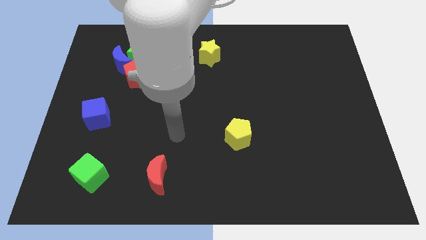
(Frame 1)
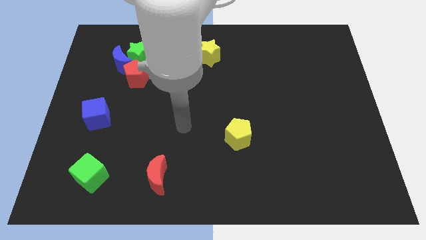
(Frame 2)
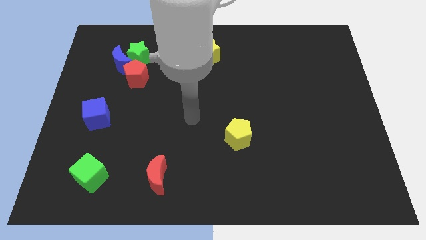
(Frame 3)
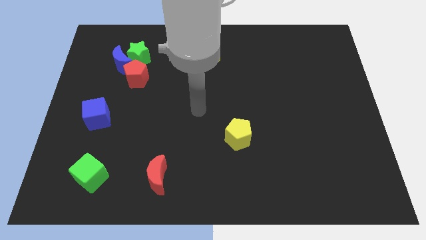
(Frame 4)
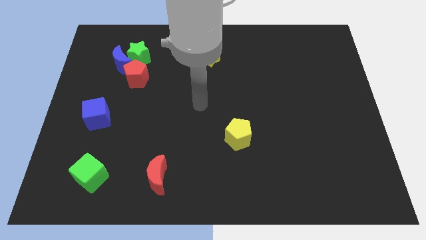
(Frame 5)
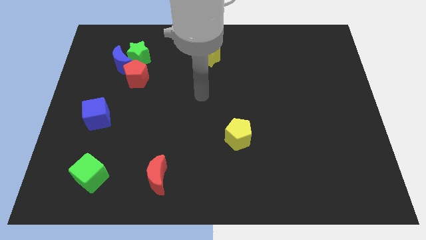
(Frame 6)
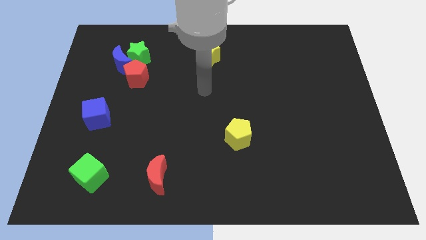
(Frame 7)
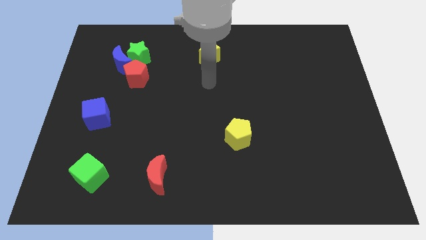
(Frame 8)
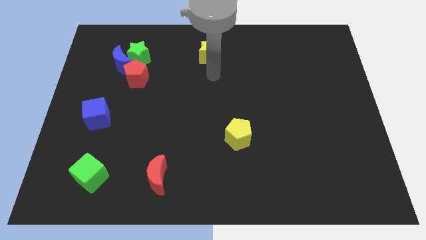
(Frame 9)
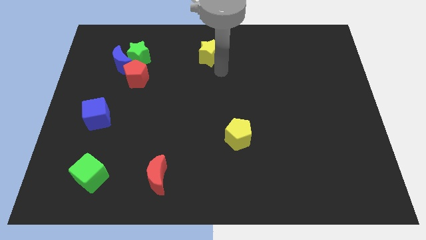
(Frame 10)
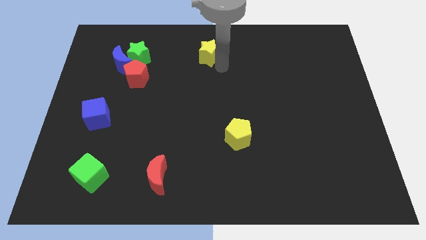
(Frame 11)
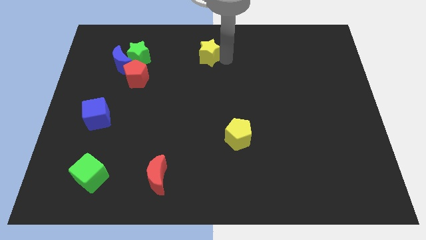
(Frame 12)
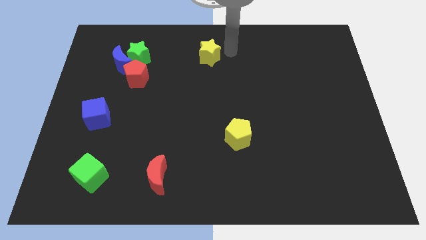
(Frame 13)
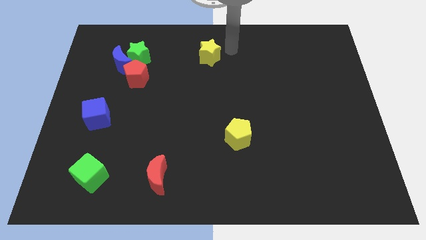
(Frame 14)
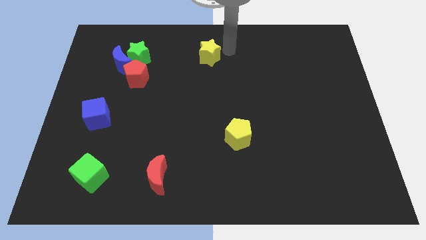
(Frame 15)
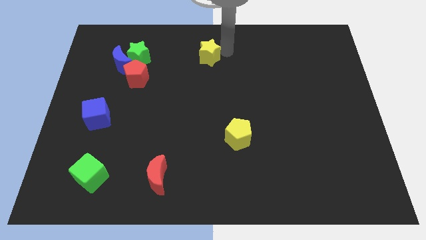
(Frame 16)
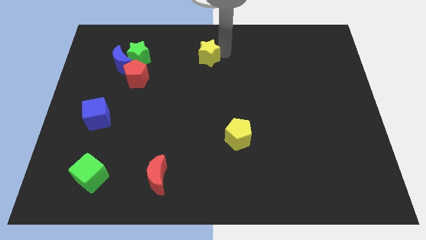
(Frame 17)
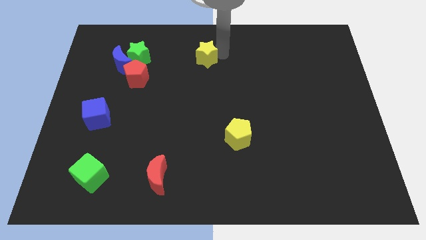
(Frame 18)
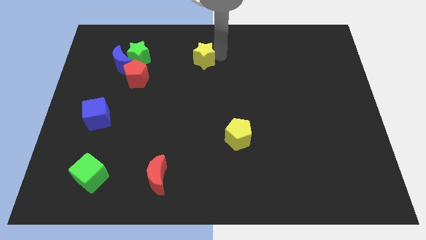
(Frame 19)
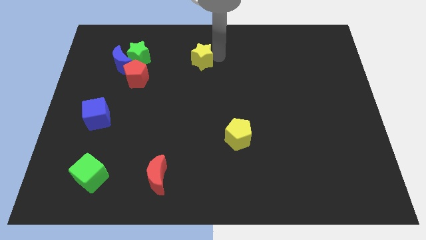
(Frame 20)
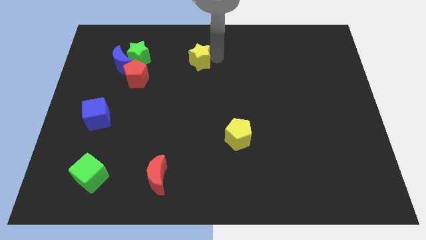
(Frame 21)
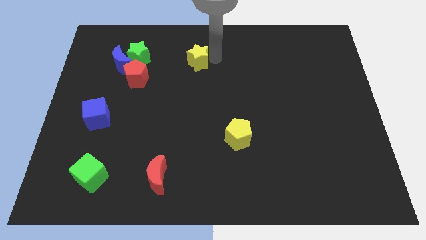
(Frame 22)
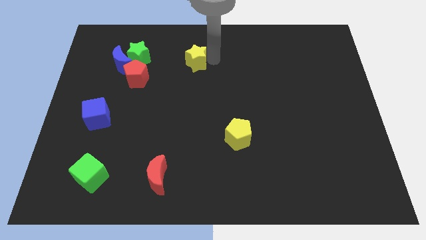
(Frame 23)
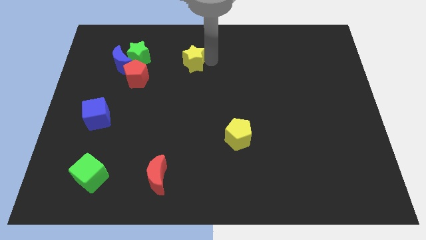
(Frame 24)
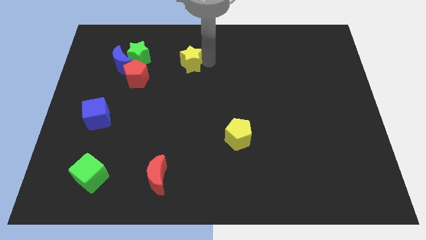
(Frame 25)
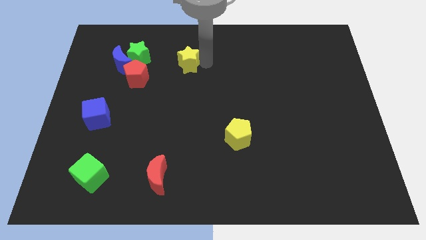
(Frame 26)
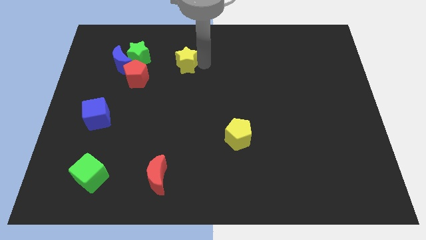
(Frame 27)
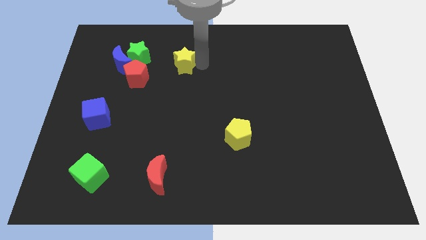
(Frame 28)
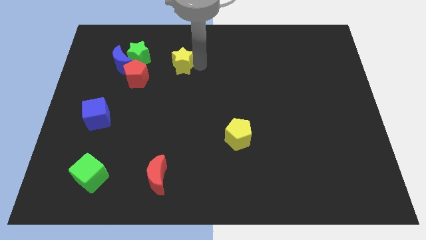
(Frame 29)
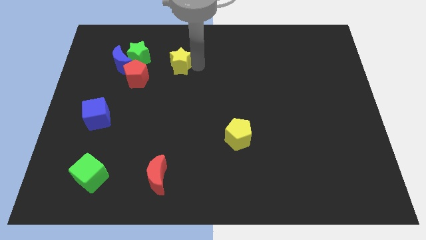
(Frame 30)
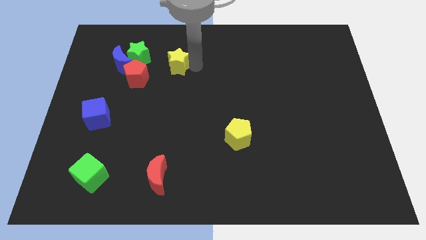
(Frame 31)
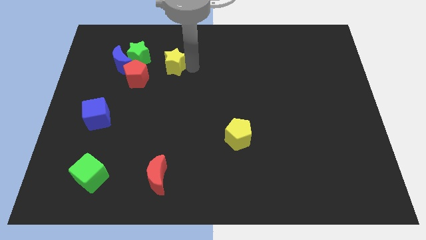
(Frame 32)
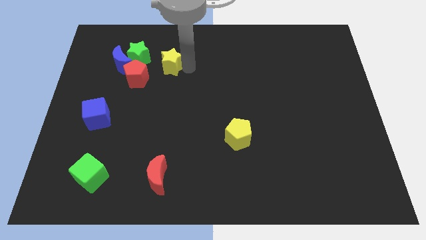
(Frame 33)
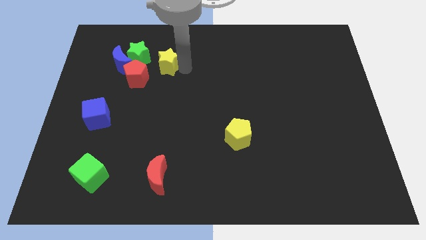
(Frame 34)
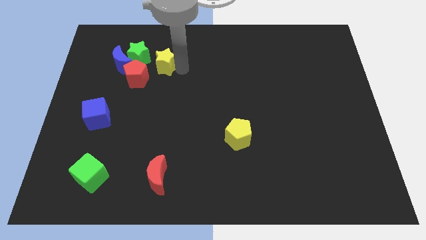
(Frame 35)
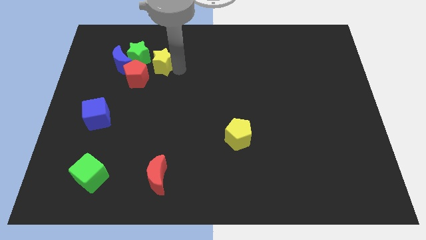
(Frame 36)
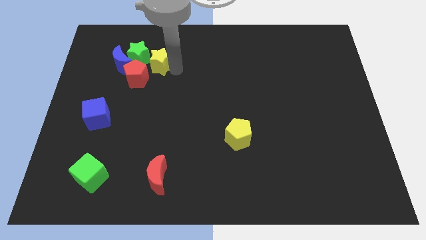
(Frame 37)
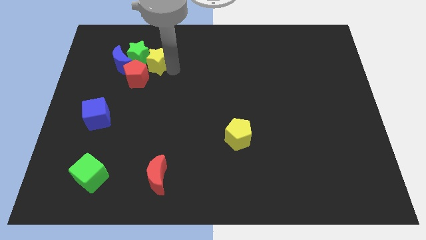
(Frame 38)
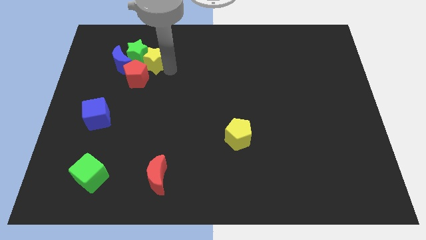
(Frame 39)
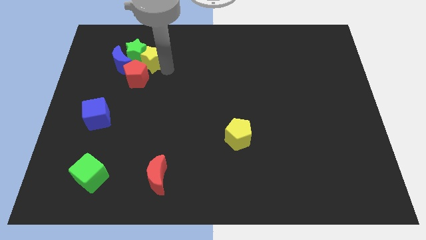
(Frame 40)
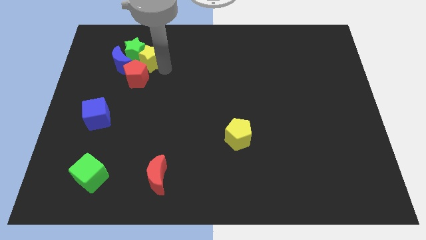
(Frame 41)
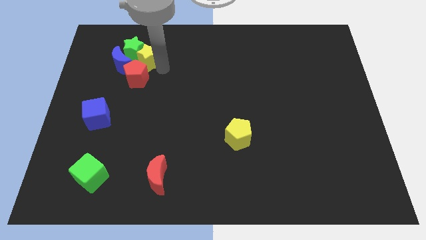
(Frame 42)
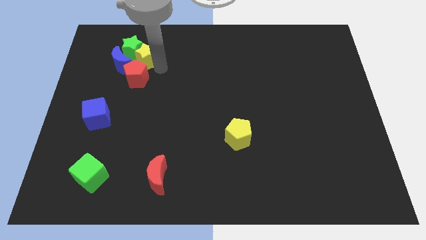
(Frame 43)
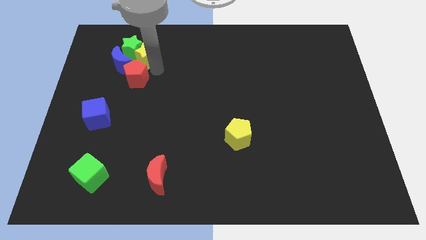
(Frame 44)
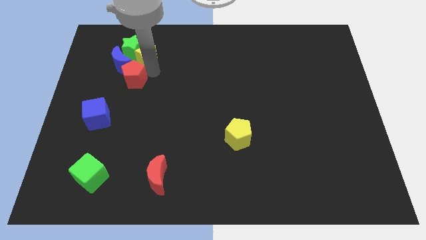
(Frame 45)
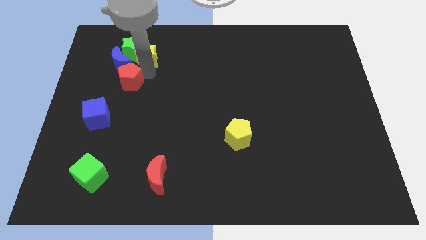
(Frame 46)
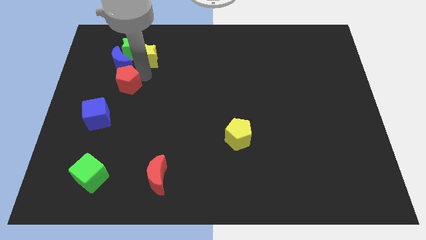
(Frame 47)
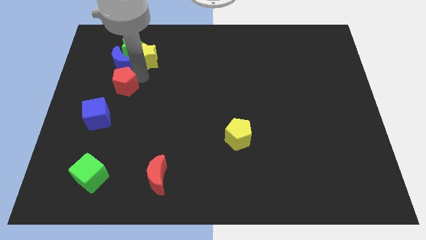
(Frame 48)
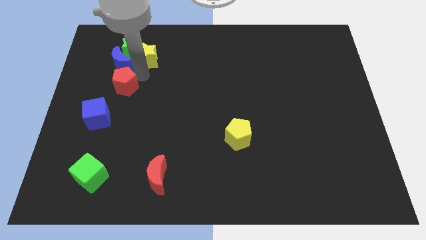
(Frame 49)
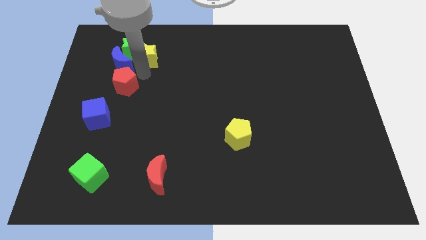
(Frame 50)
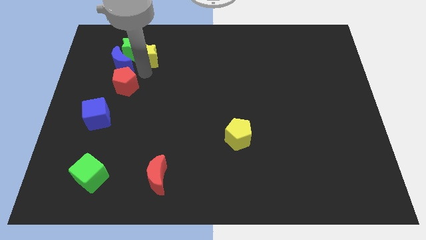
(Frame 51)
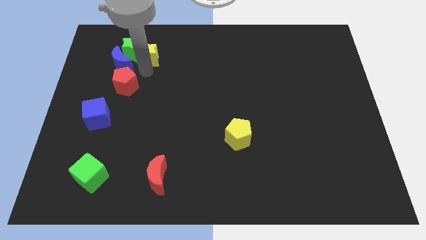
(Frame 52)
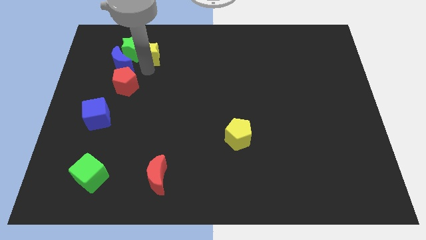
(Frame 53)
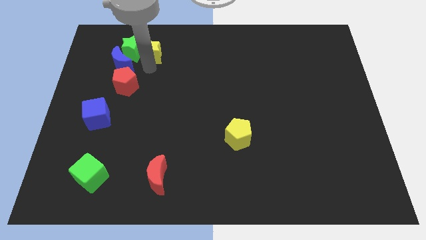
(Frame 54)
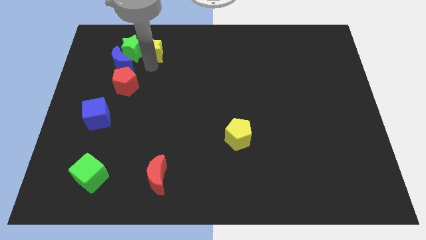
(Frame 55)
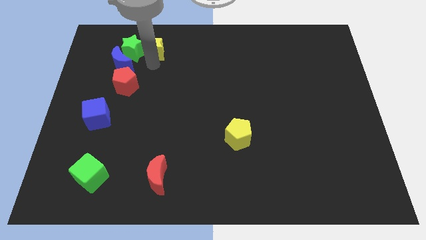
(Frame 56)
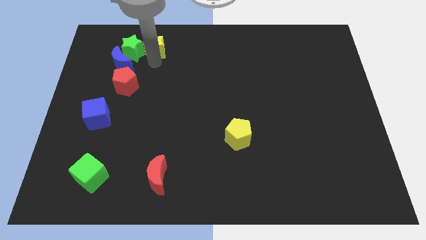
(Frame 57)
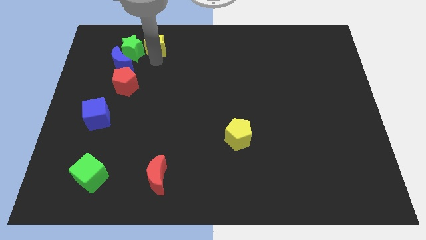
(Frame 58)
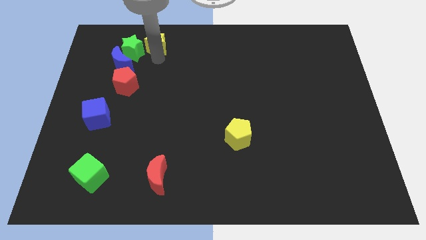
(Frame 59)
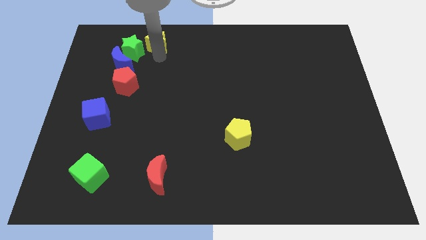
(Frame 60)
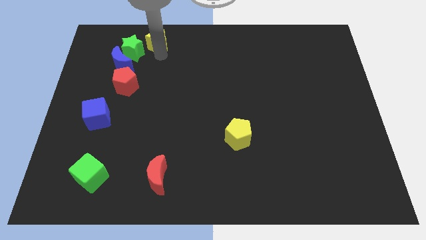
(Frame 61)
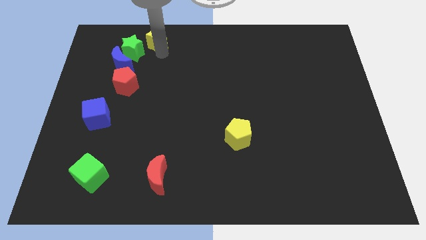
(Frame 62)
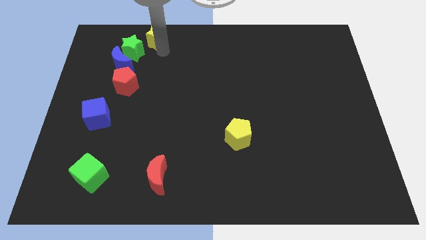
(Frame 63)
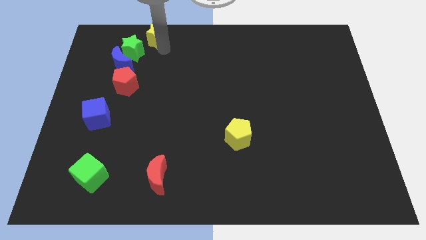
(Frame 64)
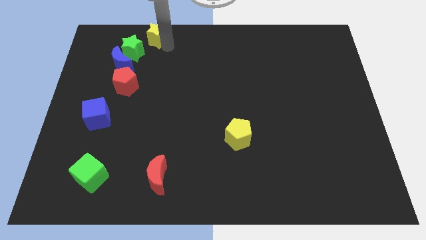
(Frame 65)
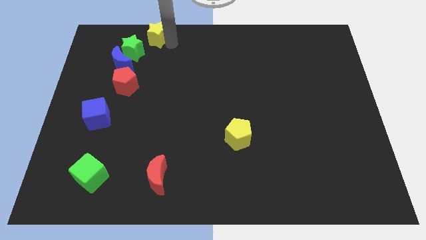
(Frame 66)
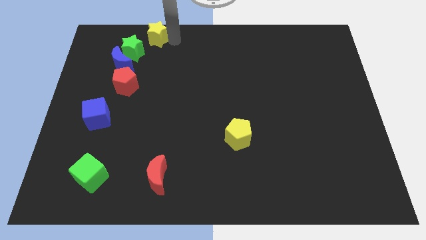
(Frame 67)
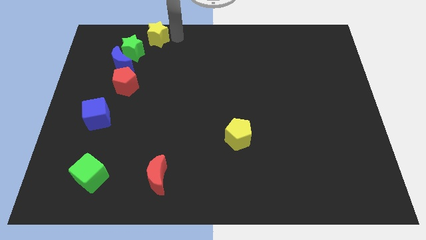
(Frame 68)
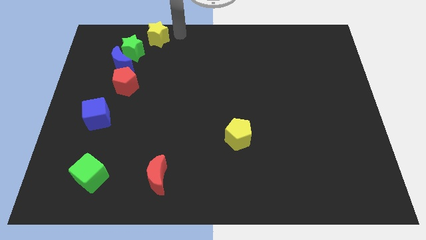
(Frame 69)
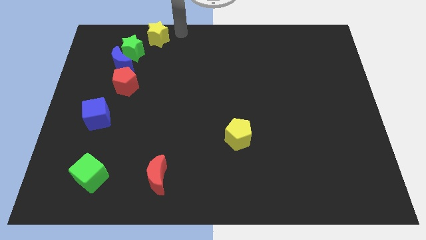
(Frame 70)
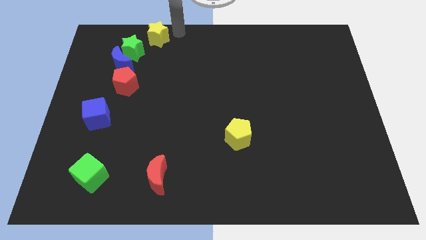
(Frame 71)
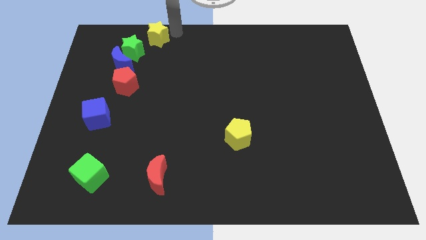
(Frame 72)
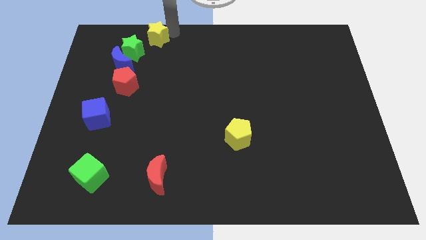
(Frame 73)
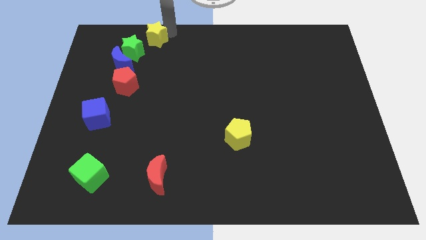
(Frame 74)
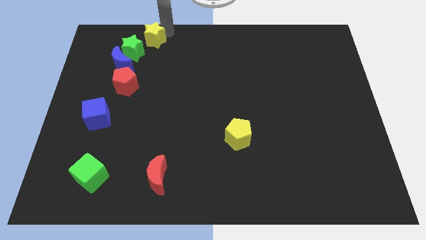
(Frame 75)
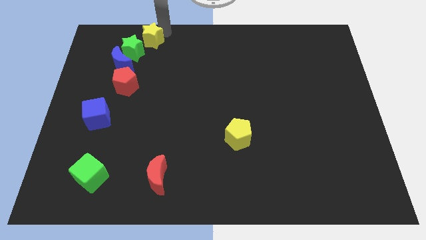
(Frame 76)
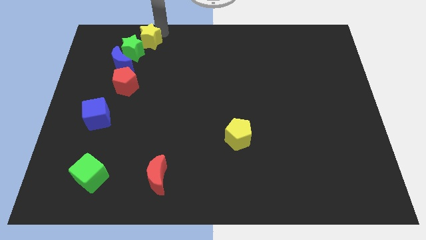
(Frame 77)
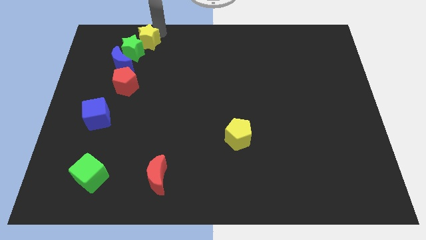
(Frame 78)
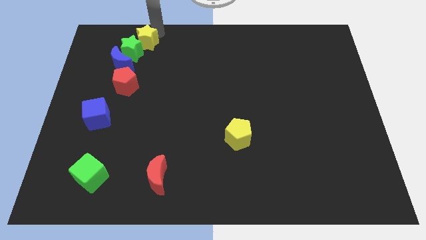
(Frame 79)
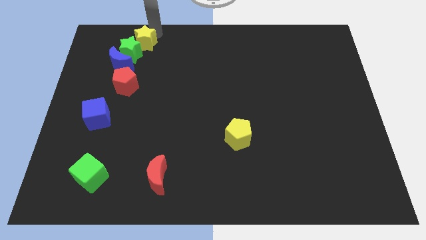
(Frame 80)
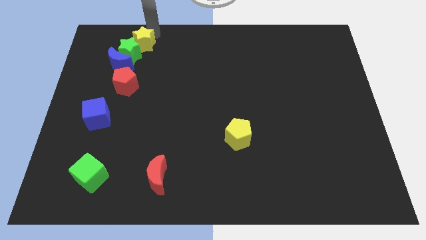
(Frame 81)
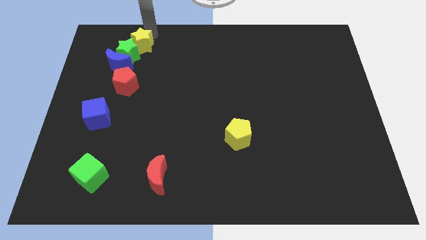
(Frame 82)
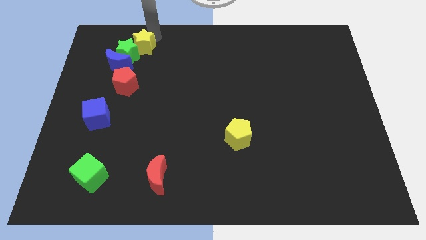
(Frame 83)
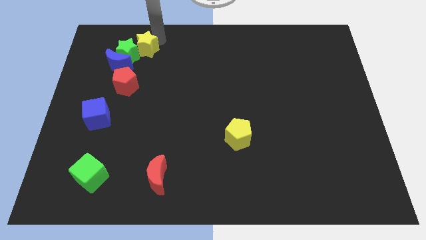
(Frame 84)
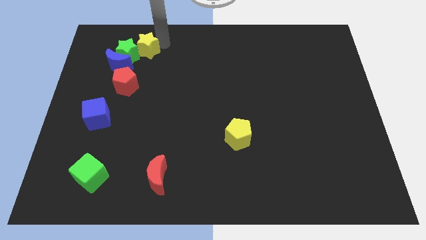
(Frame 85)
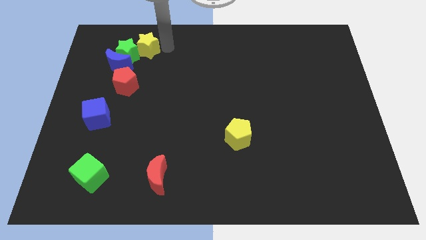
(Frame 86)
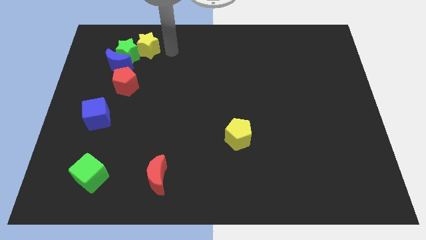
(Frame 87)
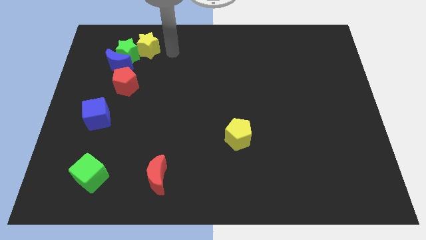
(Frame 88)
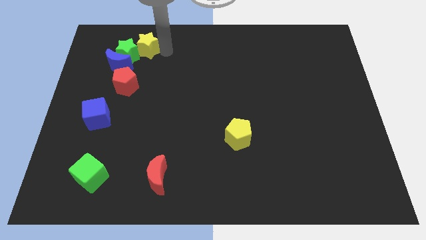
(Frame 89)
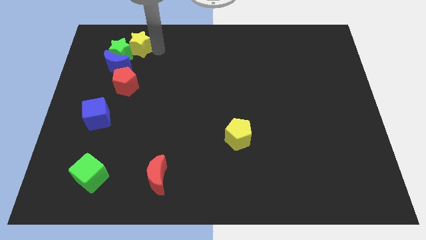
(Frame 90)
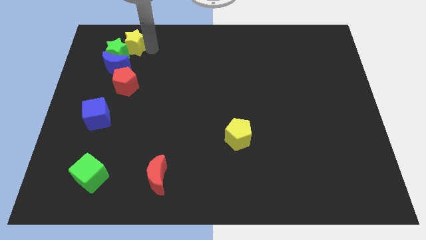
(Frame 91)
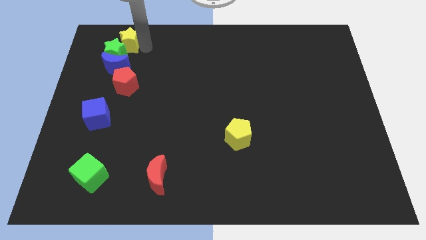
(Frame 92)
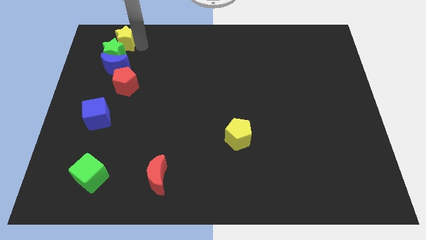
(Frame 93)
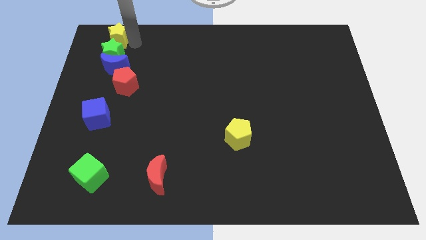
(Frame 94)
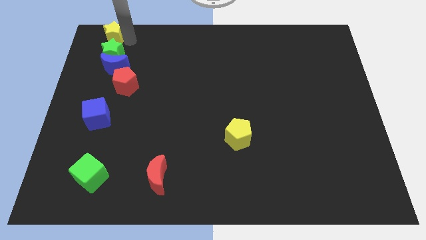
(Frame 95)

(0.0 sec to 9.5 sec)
move the yellow star to the top left corner
